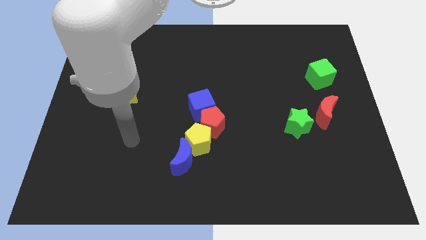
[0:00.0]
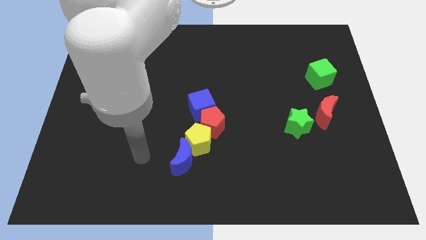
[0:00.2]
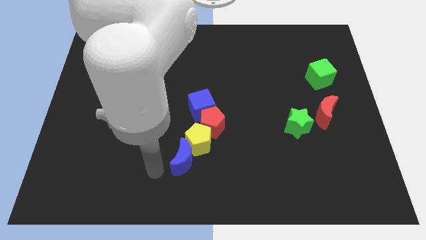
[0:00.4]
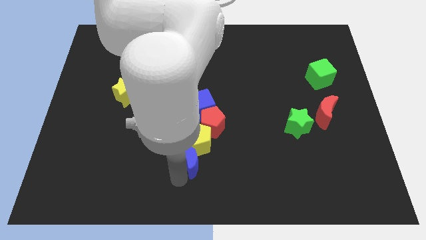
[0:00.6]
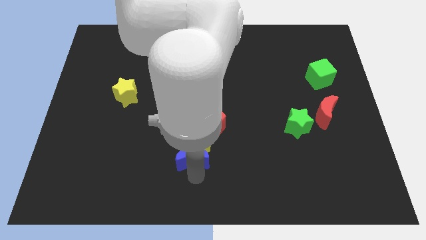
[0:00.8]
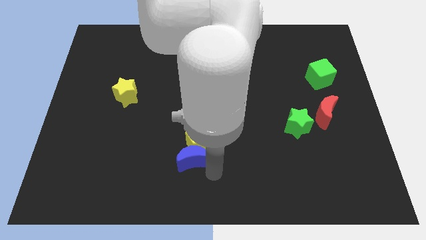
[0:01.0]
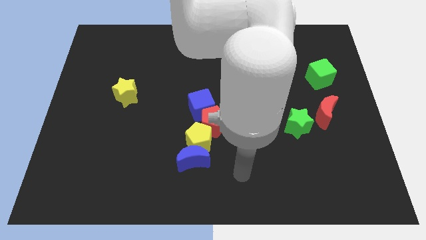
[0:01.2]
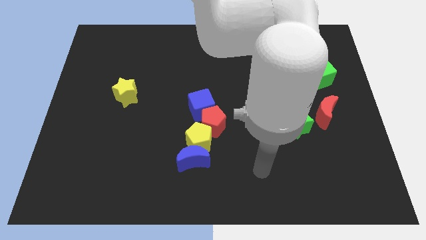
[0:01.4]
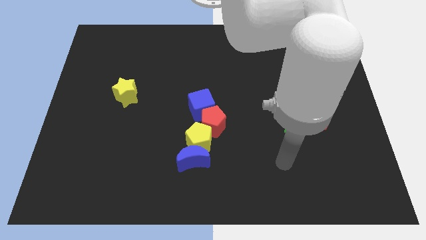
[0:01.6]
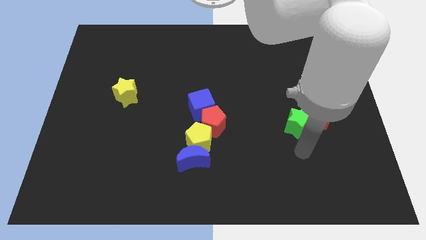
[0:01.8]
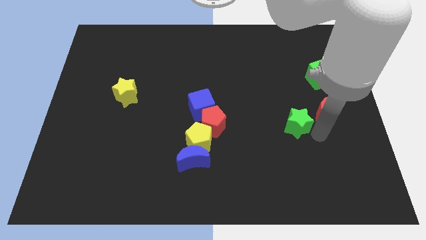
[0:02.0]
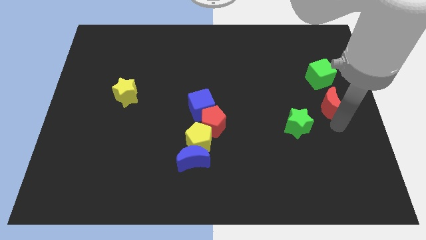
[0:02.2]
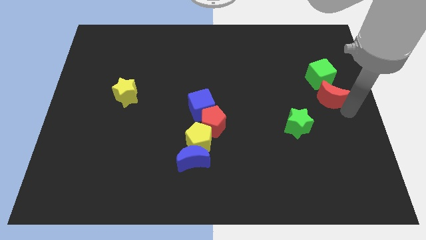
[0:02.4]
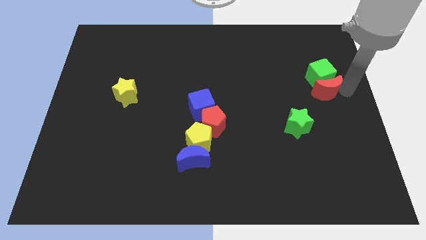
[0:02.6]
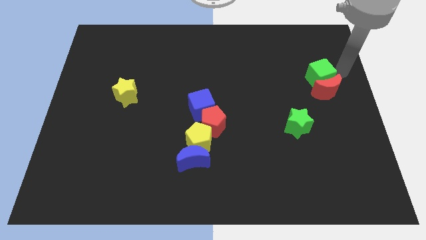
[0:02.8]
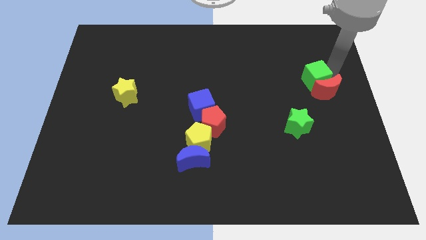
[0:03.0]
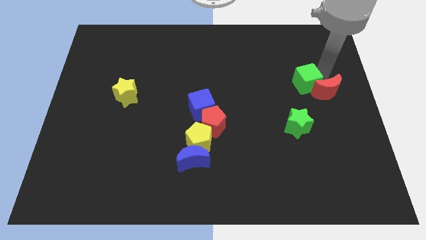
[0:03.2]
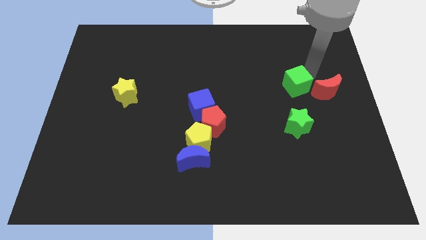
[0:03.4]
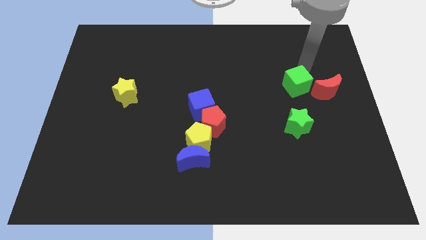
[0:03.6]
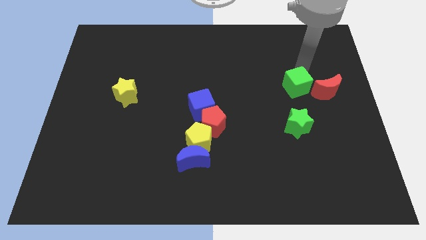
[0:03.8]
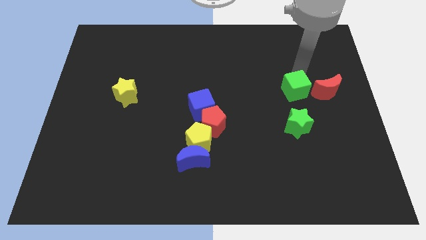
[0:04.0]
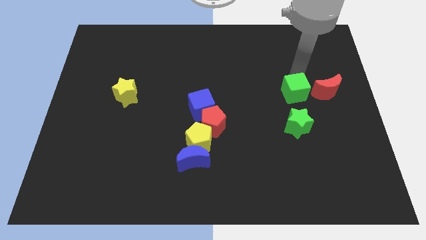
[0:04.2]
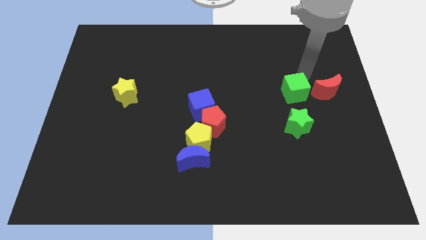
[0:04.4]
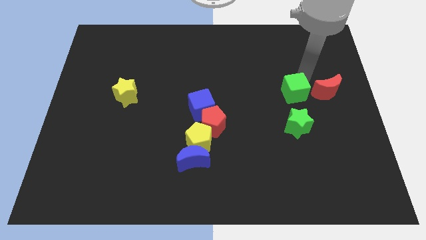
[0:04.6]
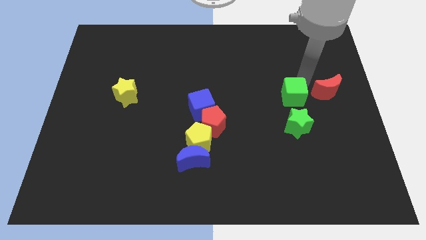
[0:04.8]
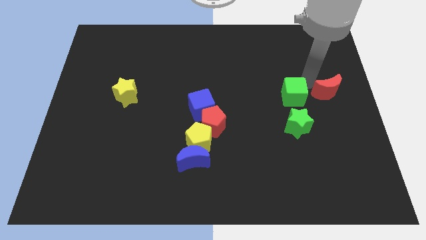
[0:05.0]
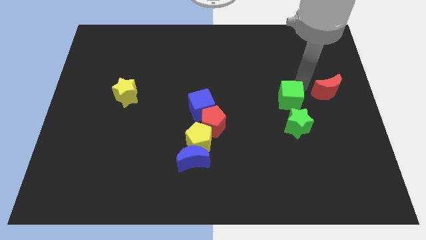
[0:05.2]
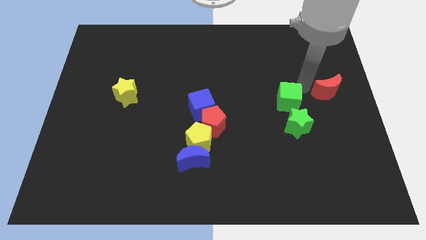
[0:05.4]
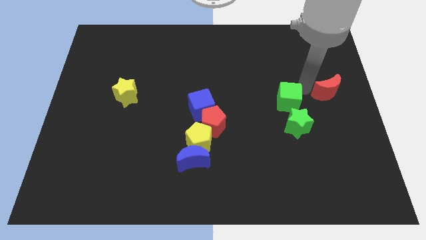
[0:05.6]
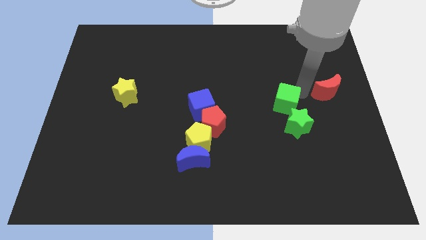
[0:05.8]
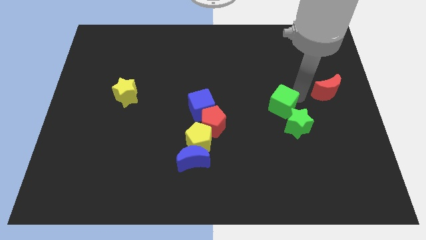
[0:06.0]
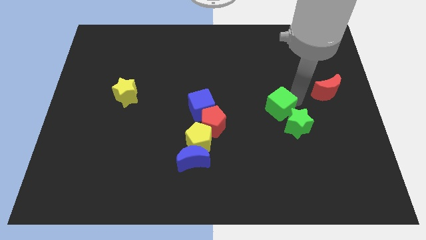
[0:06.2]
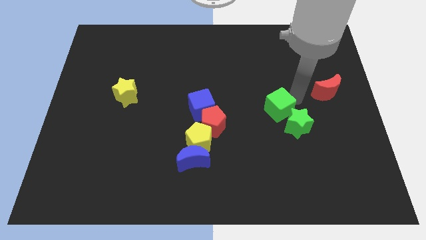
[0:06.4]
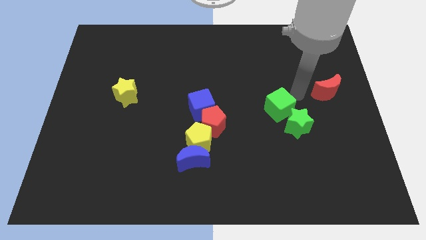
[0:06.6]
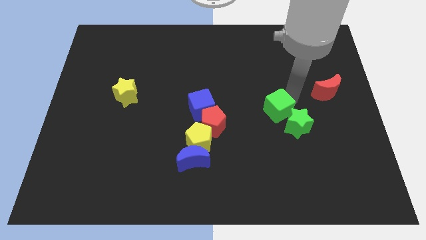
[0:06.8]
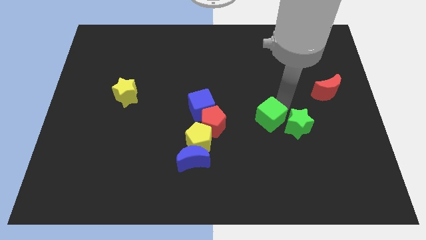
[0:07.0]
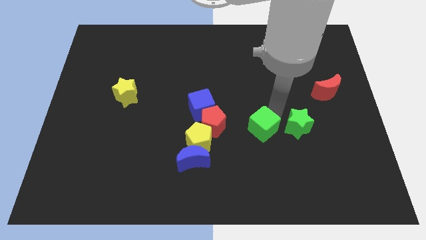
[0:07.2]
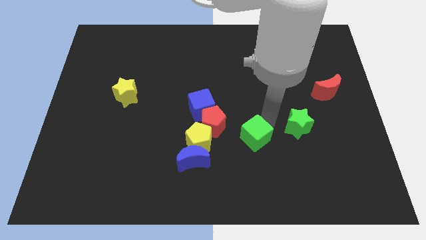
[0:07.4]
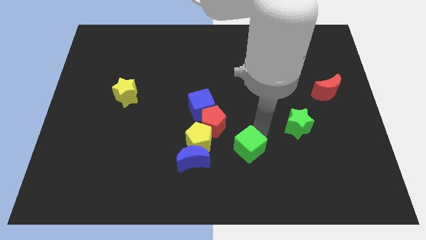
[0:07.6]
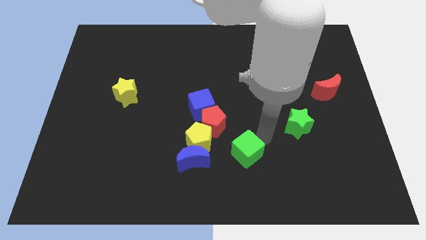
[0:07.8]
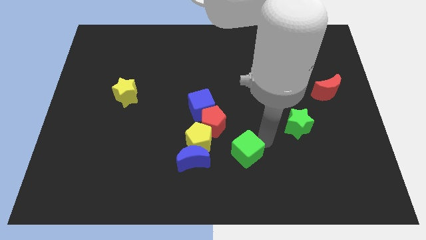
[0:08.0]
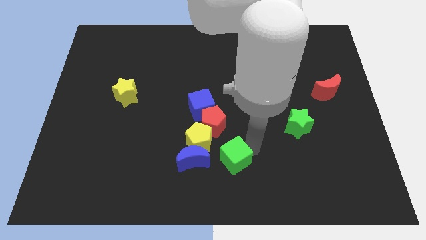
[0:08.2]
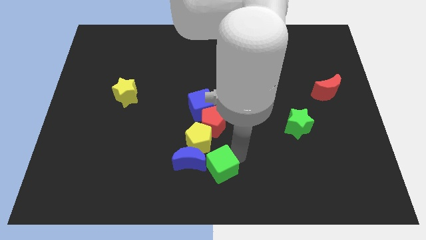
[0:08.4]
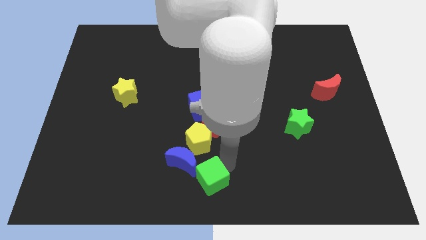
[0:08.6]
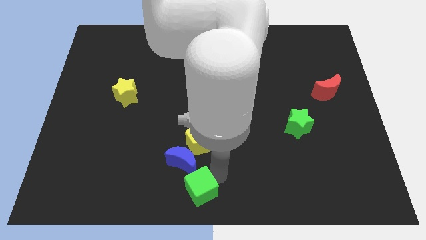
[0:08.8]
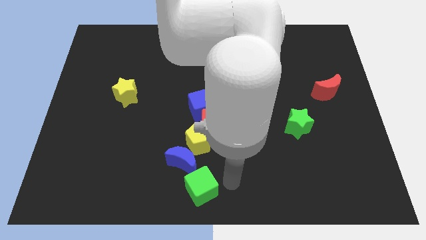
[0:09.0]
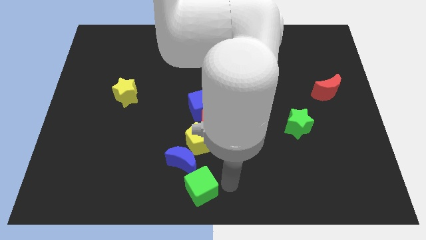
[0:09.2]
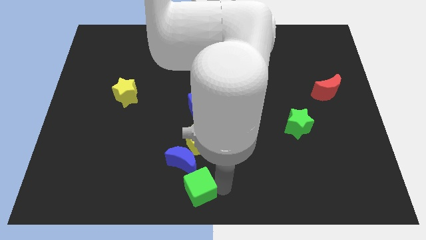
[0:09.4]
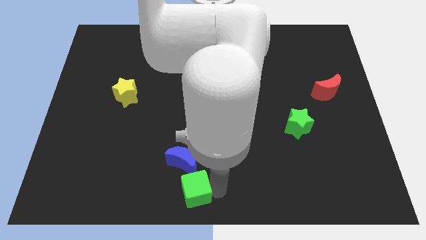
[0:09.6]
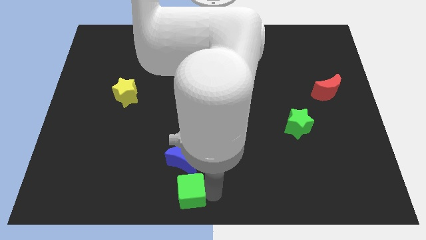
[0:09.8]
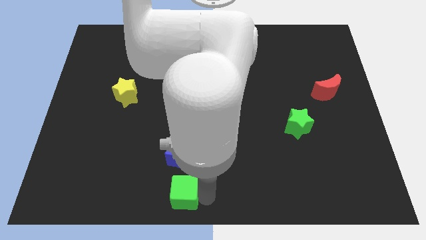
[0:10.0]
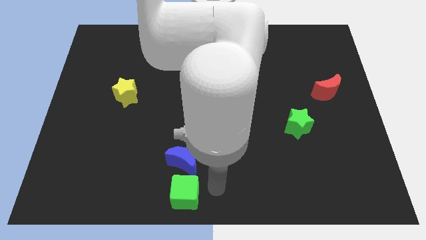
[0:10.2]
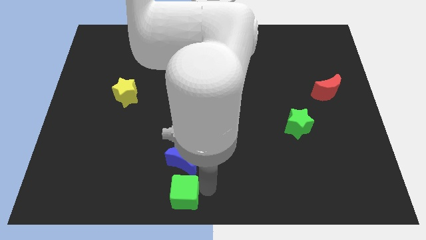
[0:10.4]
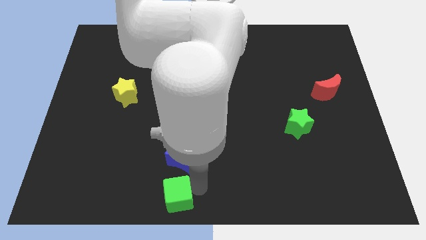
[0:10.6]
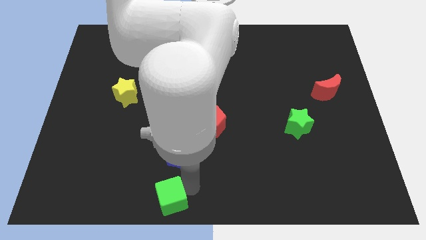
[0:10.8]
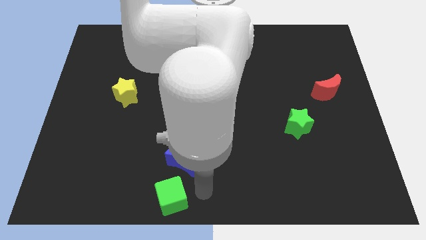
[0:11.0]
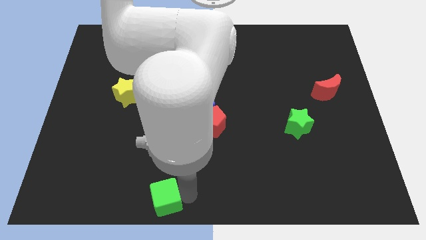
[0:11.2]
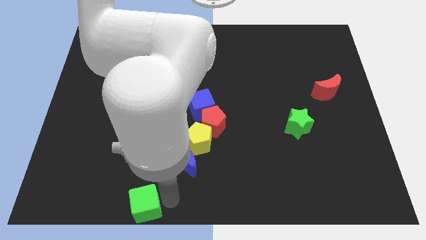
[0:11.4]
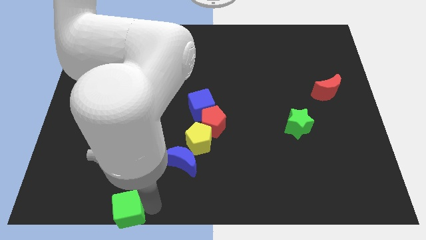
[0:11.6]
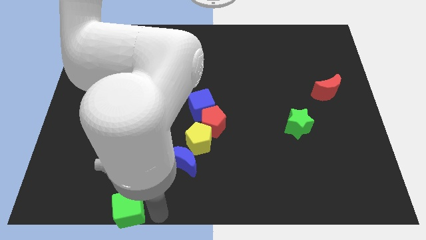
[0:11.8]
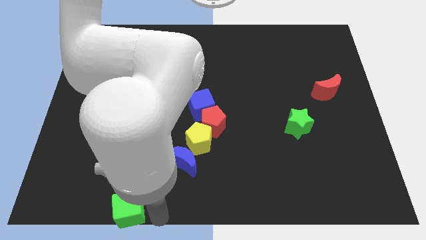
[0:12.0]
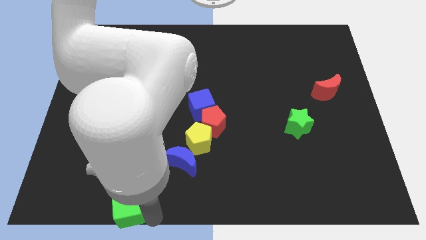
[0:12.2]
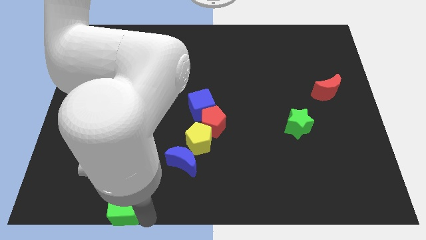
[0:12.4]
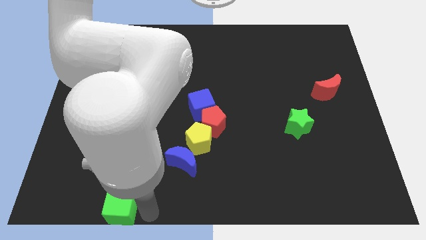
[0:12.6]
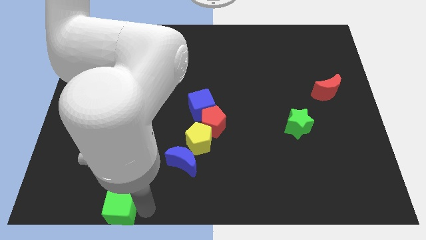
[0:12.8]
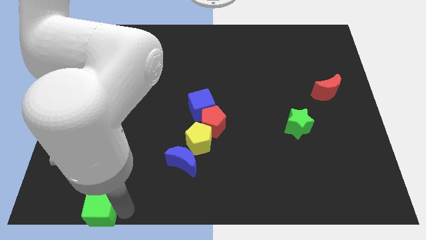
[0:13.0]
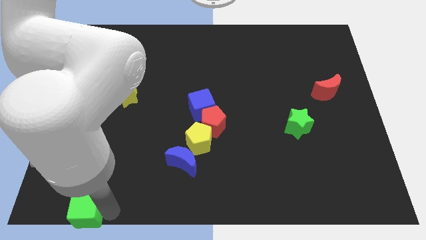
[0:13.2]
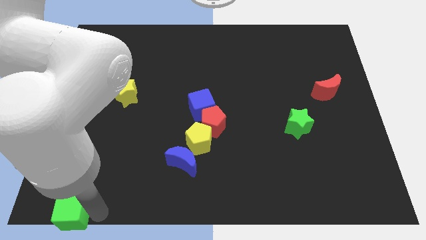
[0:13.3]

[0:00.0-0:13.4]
slide the green cube to the bottom left corner
